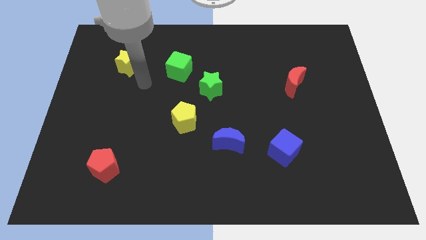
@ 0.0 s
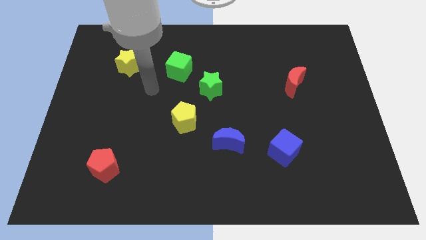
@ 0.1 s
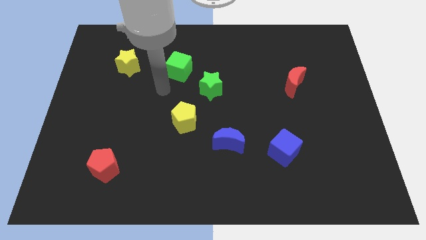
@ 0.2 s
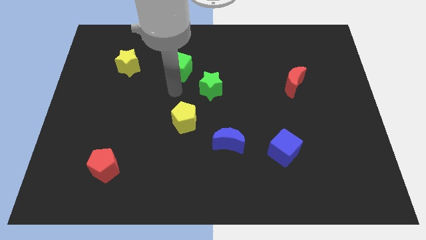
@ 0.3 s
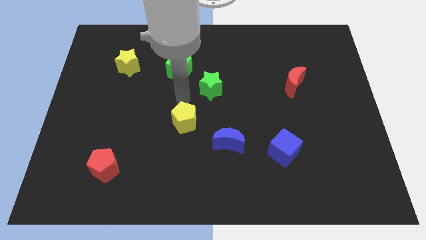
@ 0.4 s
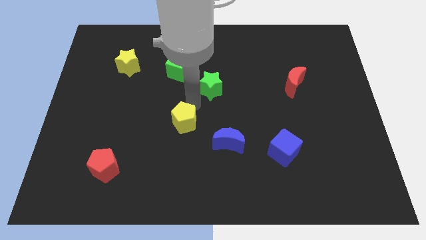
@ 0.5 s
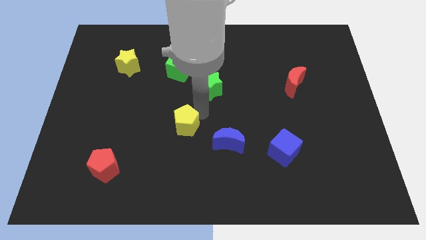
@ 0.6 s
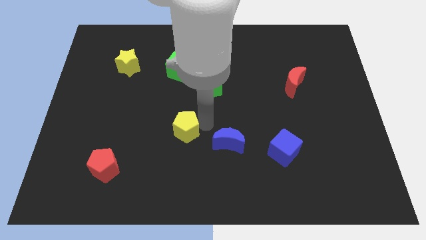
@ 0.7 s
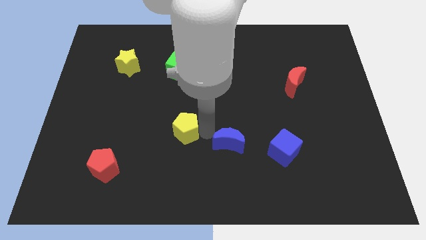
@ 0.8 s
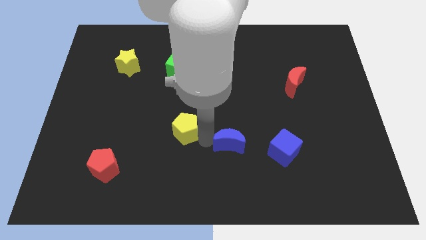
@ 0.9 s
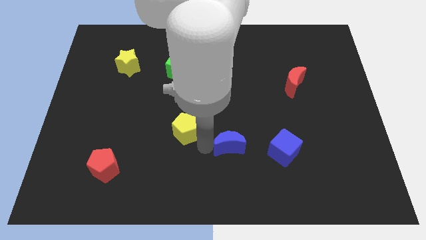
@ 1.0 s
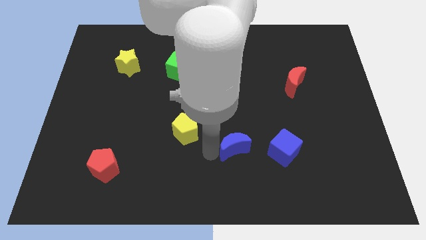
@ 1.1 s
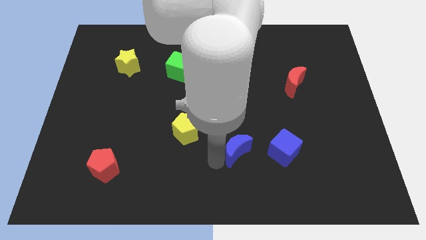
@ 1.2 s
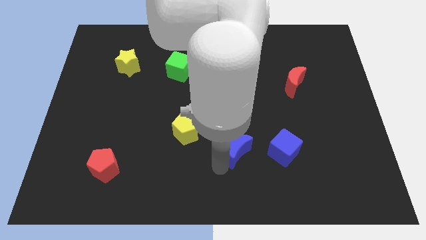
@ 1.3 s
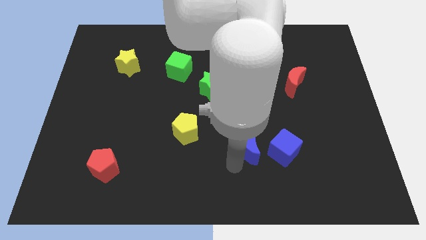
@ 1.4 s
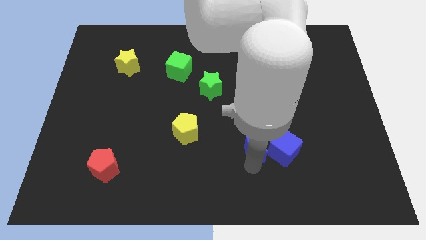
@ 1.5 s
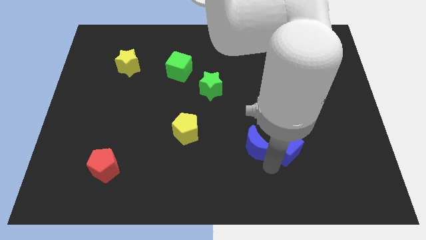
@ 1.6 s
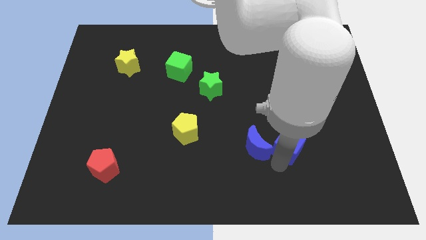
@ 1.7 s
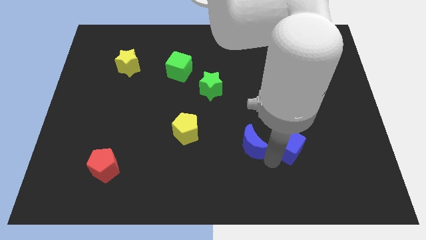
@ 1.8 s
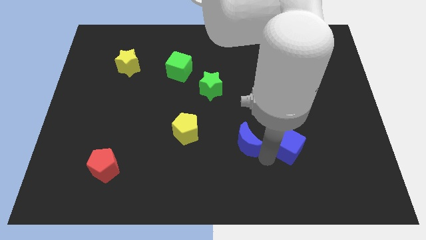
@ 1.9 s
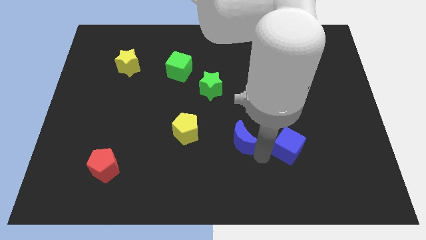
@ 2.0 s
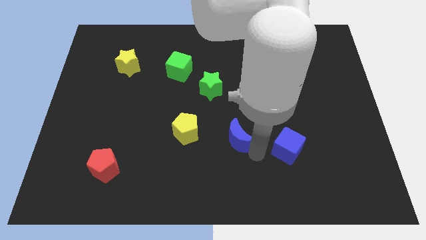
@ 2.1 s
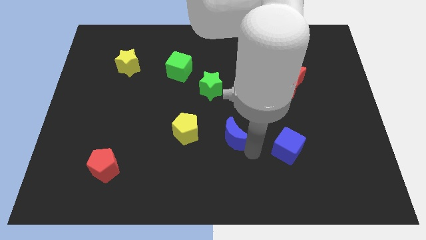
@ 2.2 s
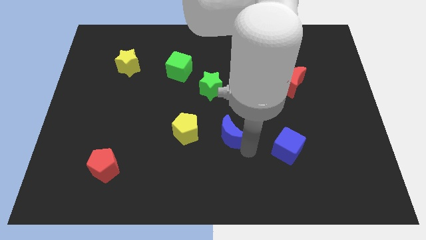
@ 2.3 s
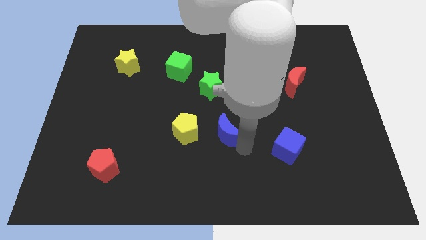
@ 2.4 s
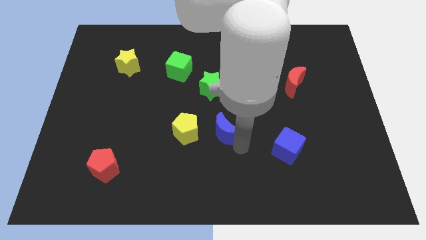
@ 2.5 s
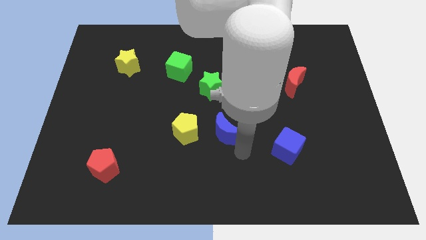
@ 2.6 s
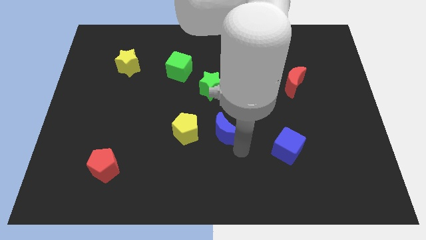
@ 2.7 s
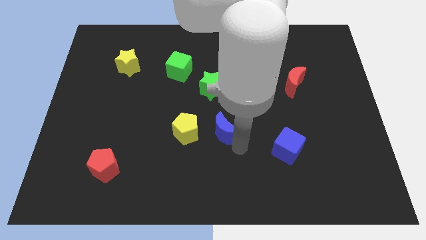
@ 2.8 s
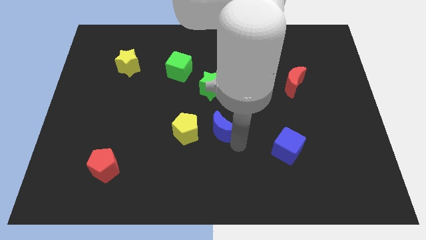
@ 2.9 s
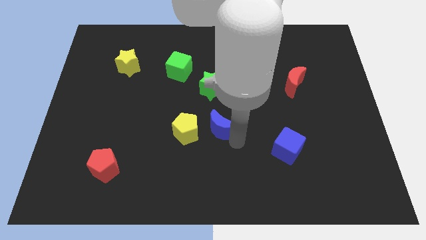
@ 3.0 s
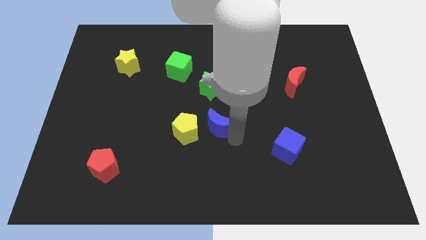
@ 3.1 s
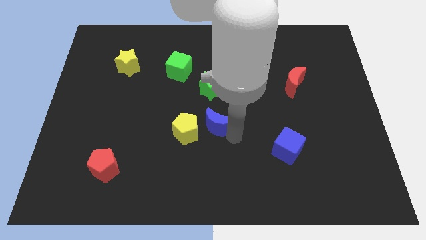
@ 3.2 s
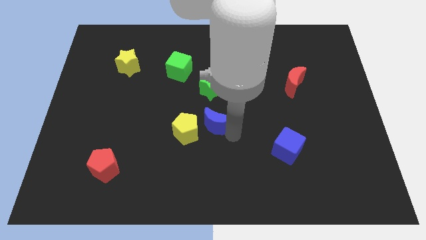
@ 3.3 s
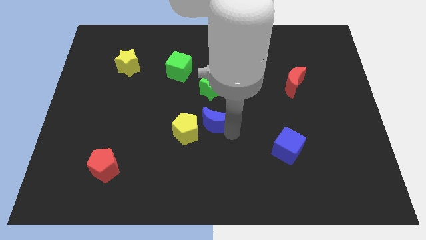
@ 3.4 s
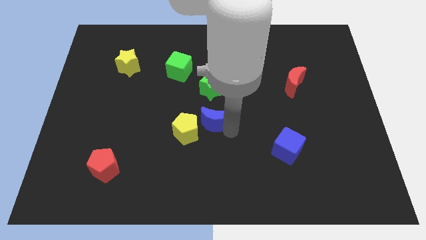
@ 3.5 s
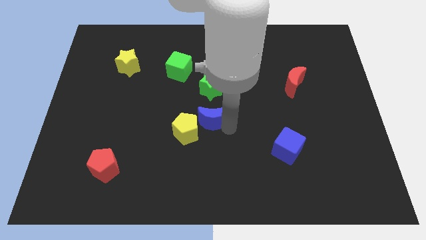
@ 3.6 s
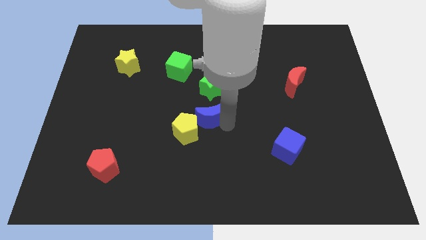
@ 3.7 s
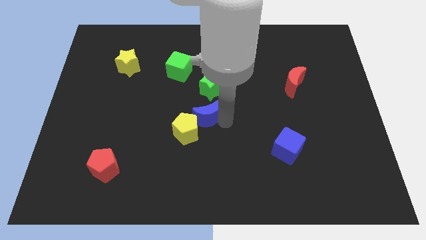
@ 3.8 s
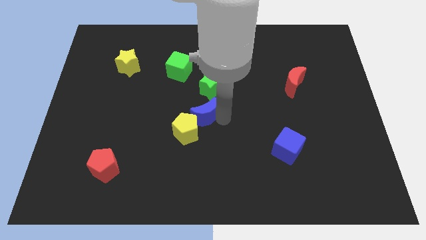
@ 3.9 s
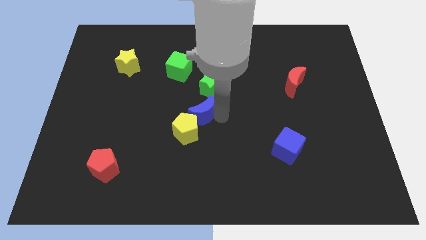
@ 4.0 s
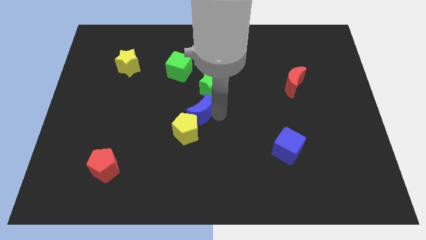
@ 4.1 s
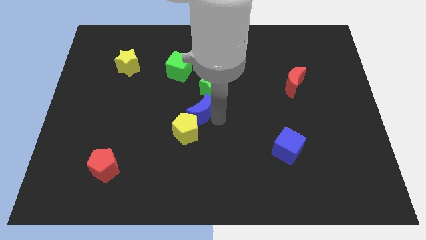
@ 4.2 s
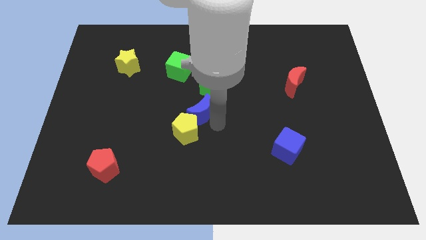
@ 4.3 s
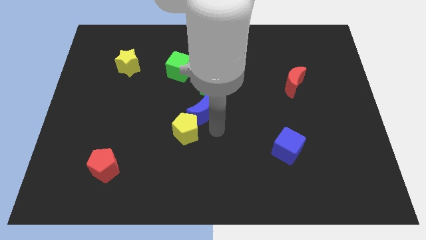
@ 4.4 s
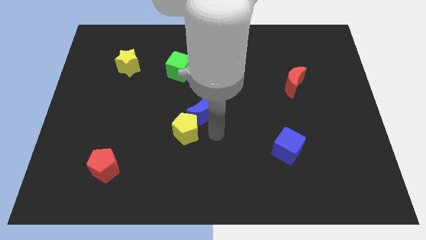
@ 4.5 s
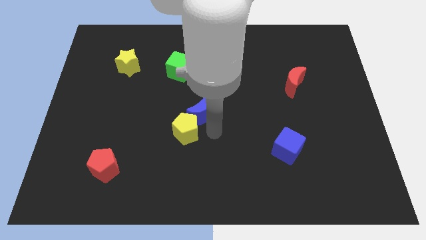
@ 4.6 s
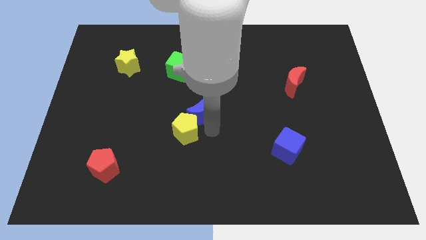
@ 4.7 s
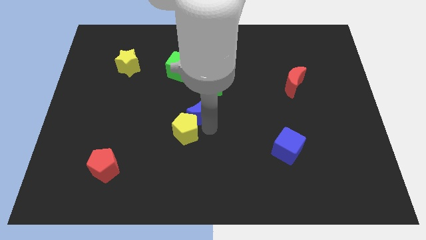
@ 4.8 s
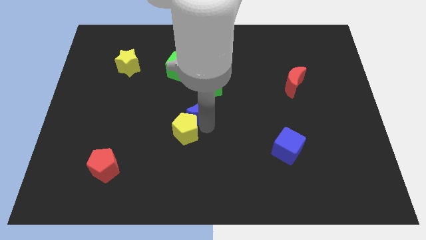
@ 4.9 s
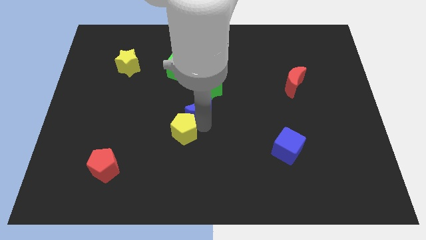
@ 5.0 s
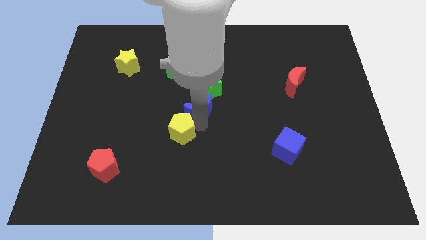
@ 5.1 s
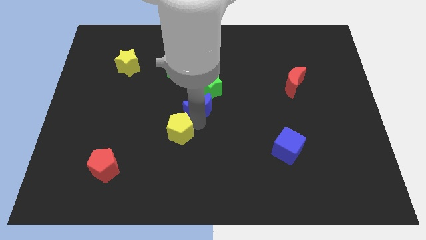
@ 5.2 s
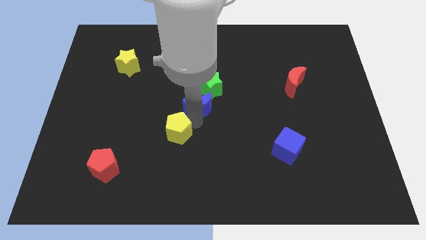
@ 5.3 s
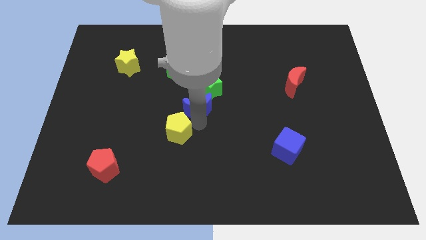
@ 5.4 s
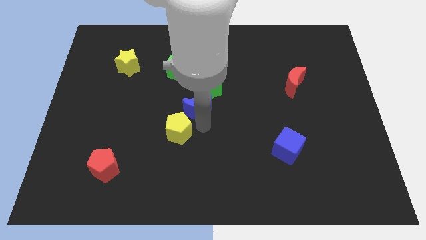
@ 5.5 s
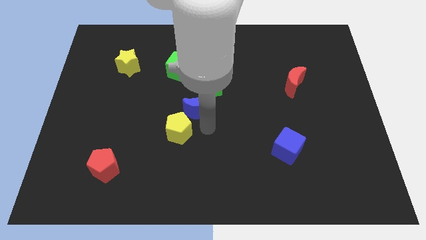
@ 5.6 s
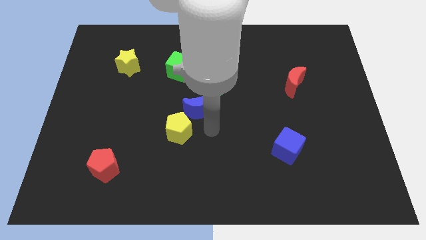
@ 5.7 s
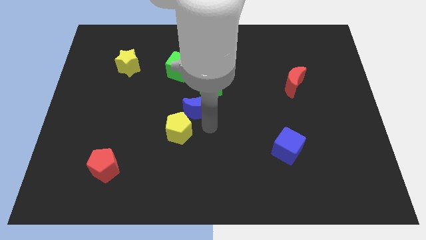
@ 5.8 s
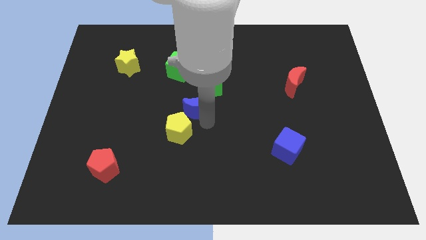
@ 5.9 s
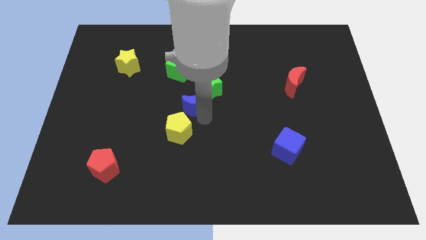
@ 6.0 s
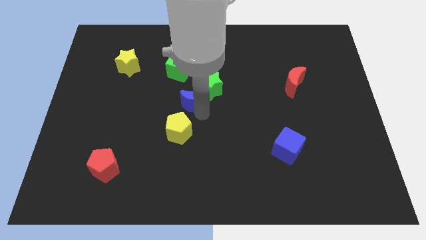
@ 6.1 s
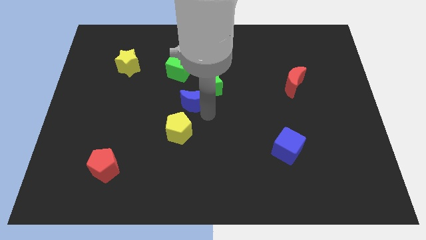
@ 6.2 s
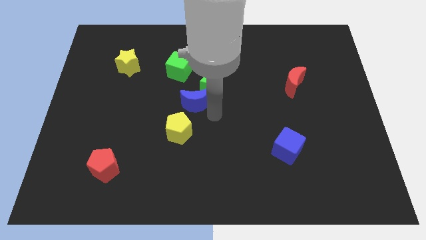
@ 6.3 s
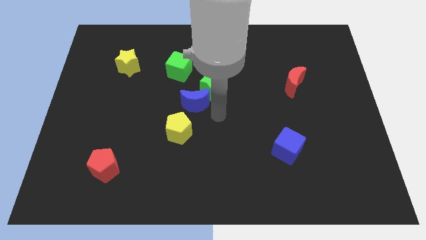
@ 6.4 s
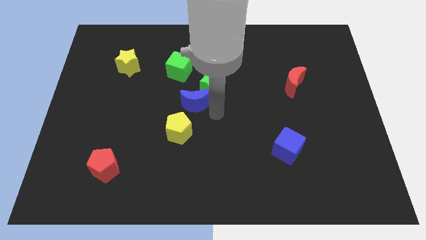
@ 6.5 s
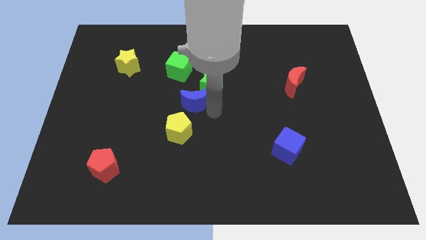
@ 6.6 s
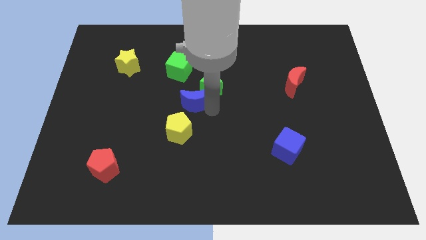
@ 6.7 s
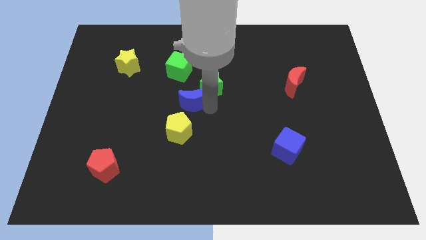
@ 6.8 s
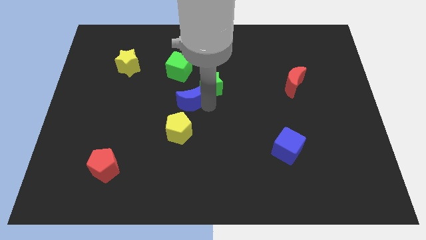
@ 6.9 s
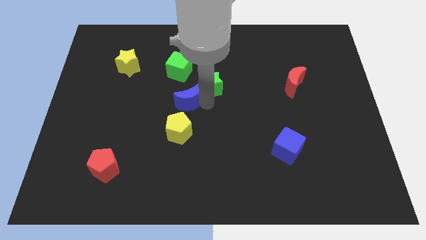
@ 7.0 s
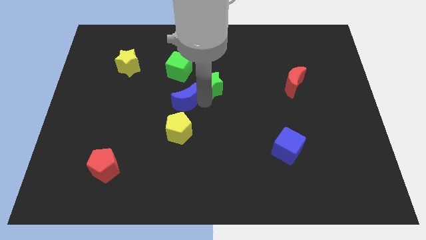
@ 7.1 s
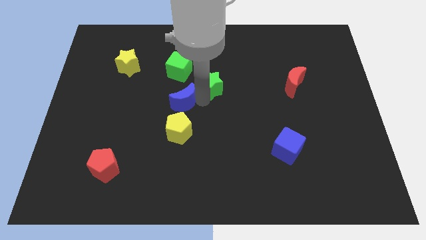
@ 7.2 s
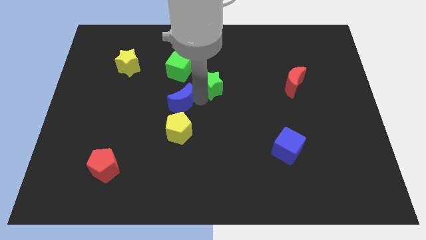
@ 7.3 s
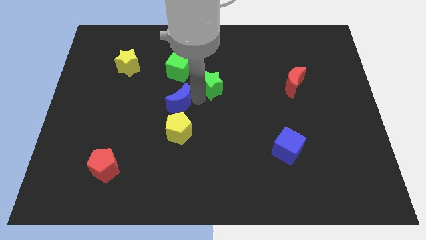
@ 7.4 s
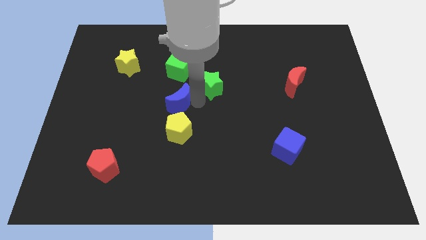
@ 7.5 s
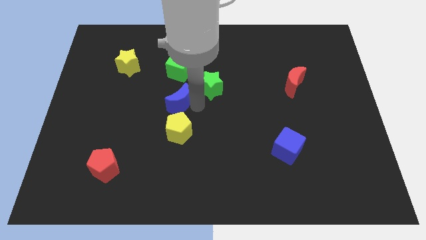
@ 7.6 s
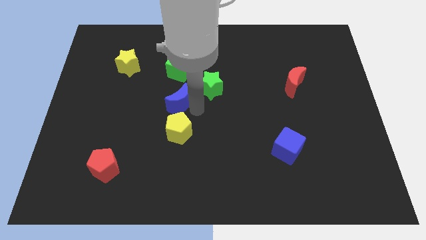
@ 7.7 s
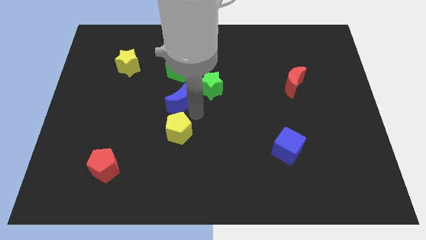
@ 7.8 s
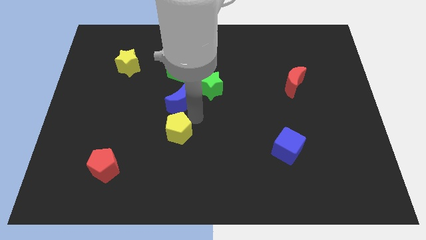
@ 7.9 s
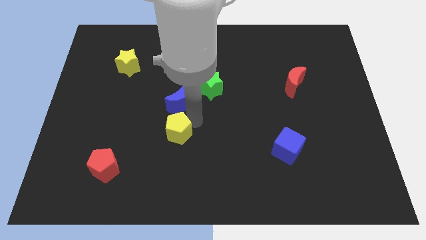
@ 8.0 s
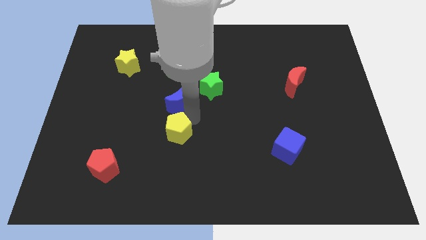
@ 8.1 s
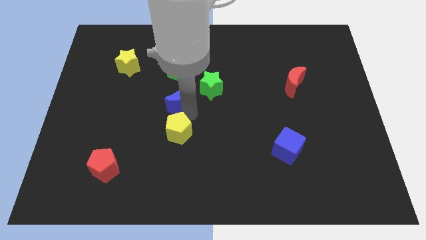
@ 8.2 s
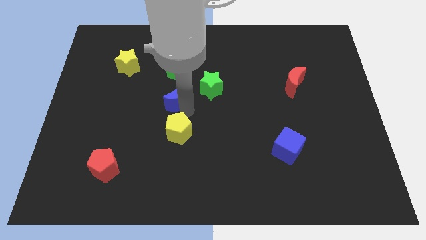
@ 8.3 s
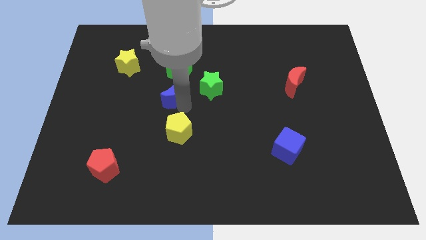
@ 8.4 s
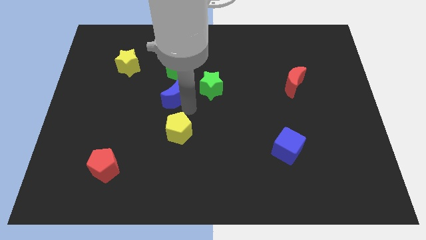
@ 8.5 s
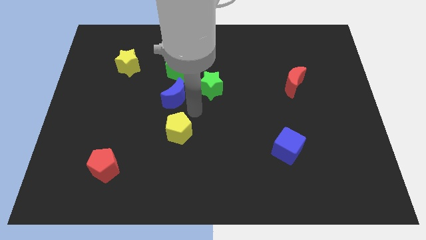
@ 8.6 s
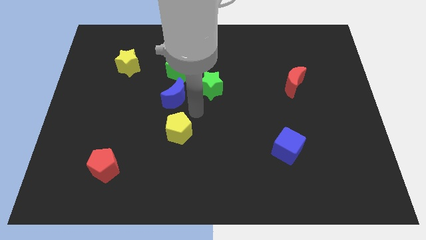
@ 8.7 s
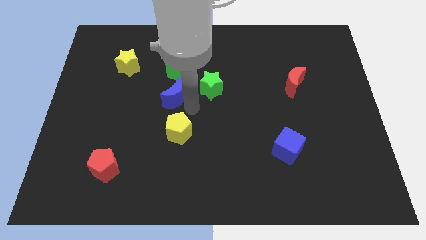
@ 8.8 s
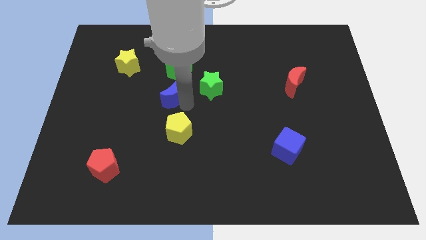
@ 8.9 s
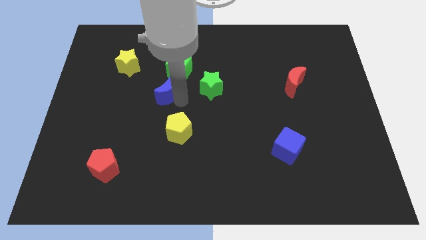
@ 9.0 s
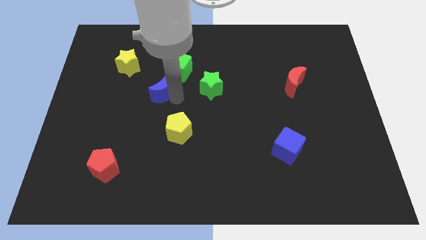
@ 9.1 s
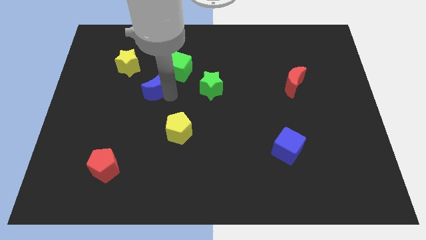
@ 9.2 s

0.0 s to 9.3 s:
slide the blue moon to the bottom right side of the yellow star
